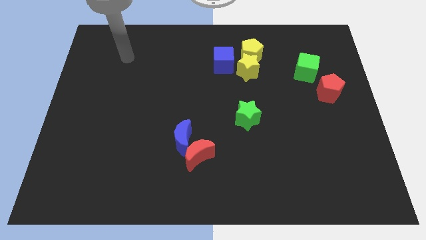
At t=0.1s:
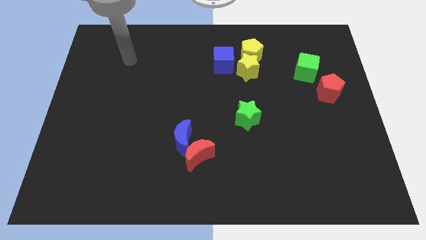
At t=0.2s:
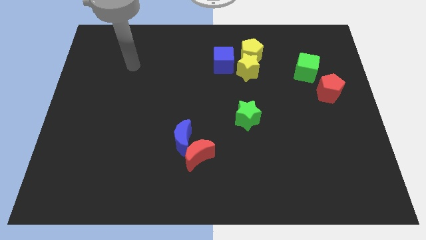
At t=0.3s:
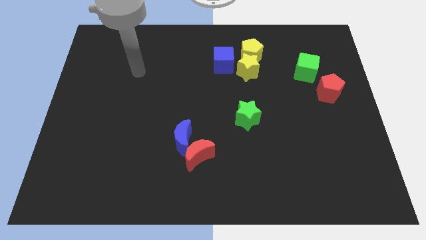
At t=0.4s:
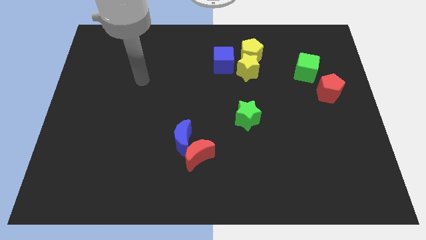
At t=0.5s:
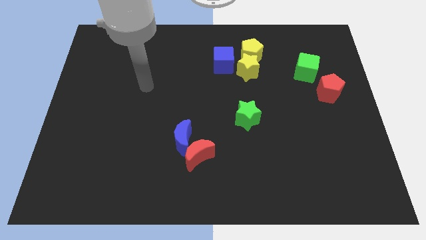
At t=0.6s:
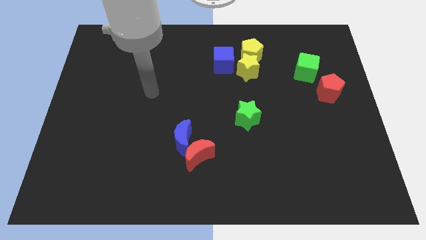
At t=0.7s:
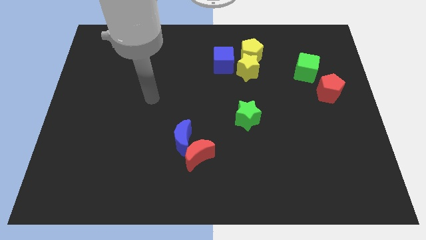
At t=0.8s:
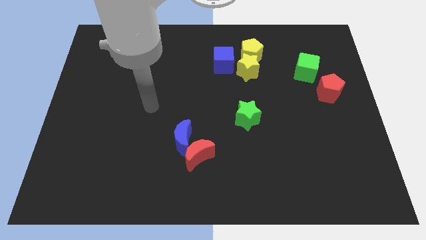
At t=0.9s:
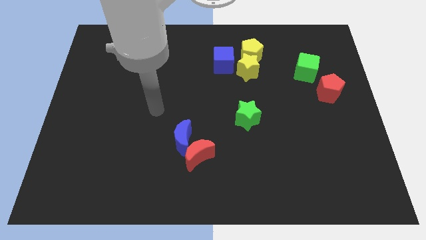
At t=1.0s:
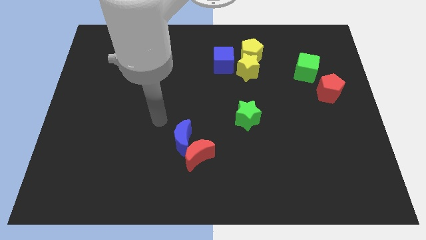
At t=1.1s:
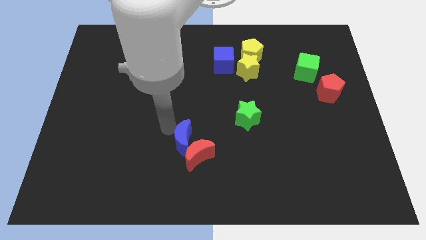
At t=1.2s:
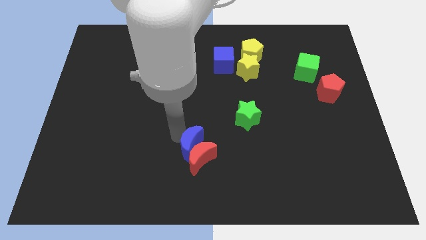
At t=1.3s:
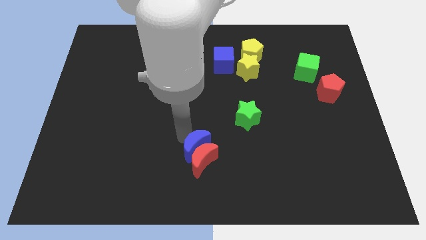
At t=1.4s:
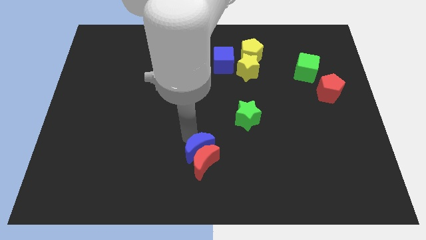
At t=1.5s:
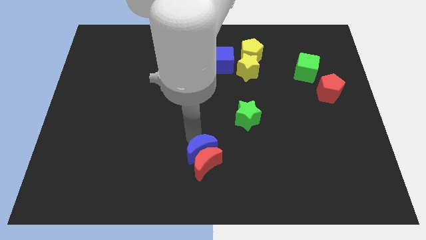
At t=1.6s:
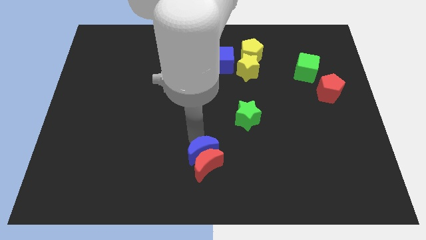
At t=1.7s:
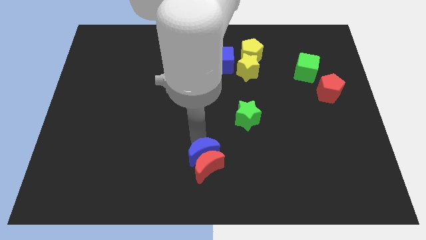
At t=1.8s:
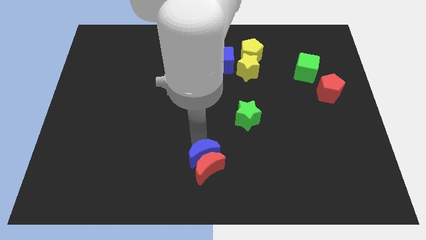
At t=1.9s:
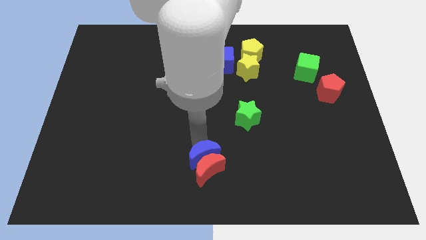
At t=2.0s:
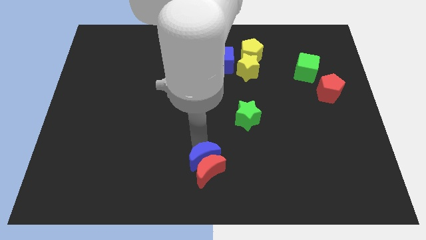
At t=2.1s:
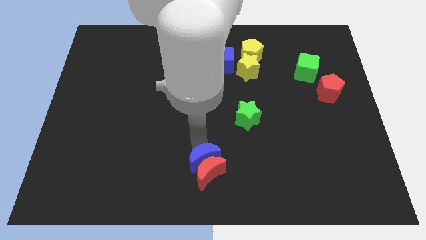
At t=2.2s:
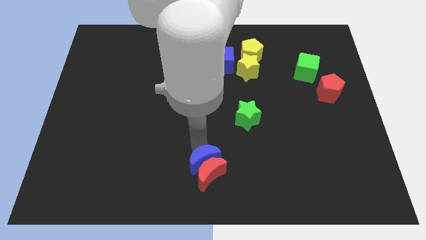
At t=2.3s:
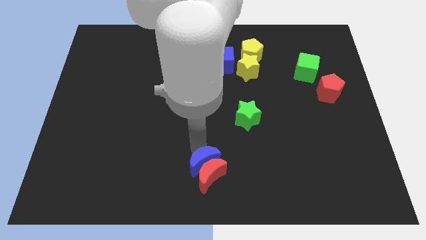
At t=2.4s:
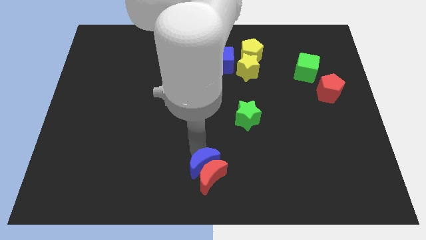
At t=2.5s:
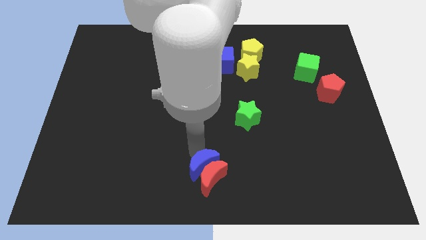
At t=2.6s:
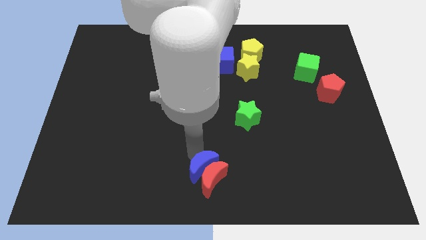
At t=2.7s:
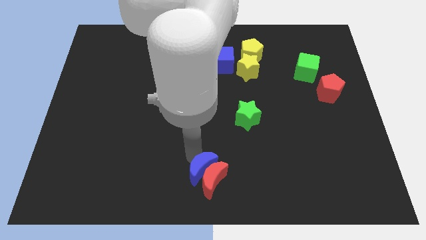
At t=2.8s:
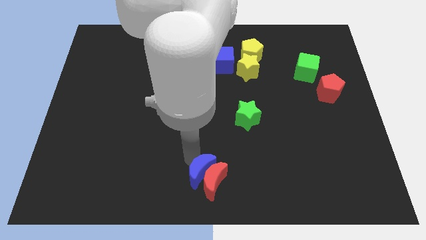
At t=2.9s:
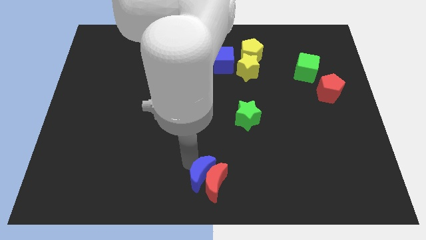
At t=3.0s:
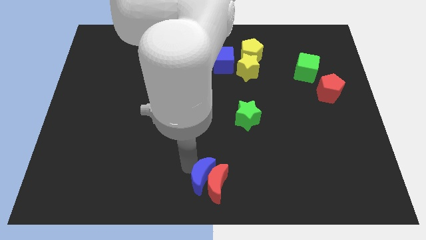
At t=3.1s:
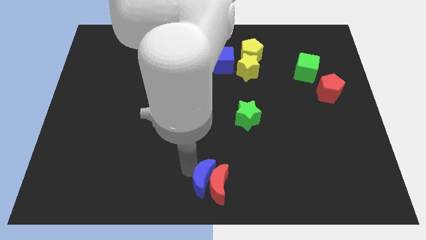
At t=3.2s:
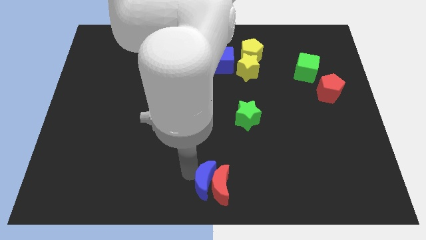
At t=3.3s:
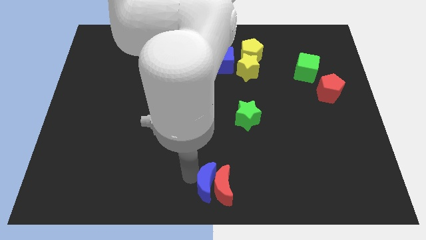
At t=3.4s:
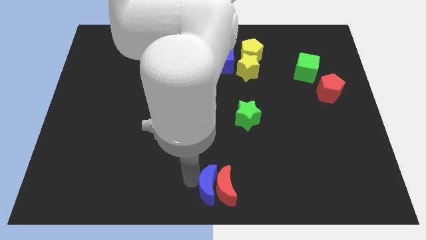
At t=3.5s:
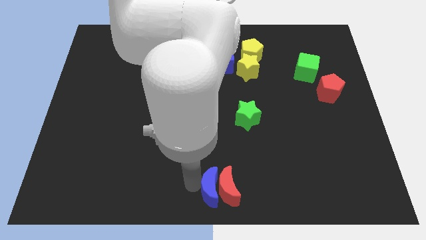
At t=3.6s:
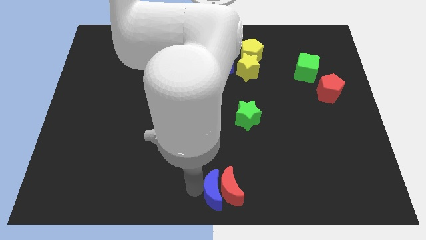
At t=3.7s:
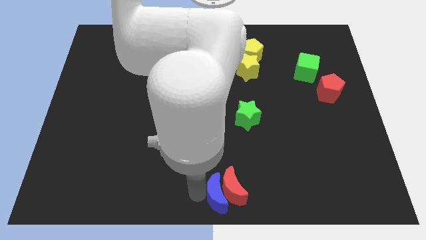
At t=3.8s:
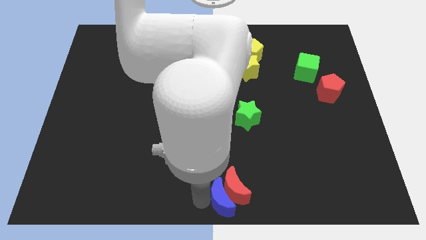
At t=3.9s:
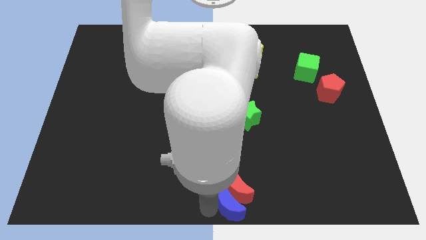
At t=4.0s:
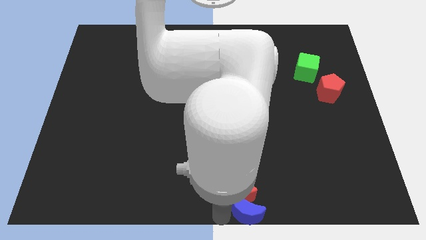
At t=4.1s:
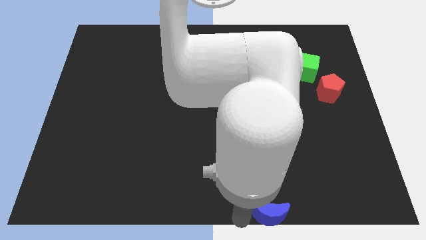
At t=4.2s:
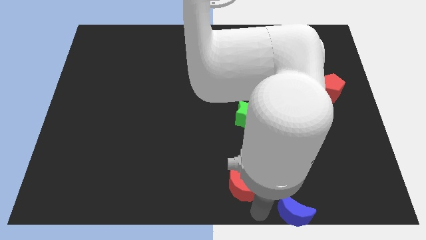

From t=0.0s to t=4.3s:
separate the red moon from the blue moon

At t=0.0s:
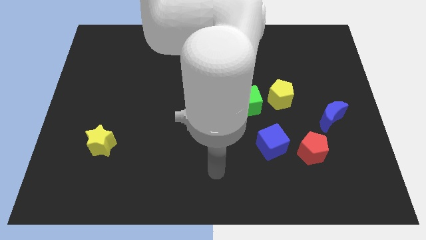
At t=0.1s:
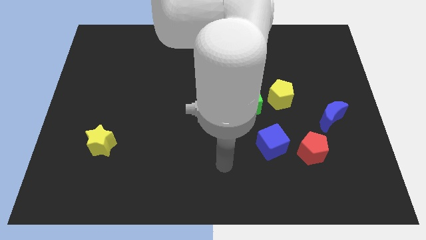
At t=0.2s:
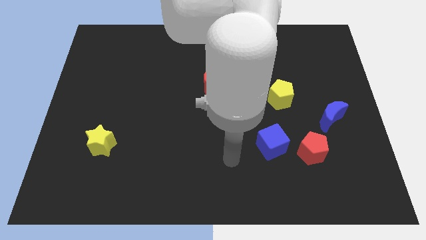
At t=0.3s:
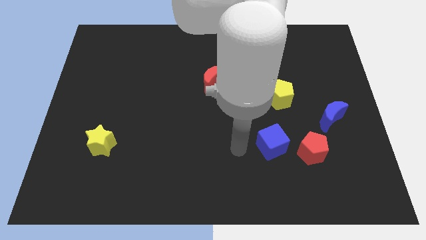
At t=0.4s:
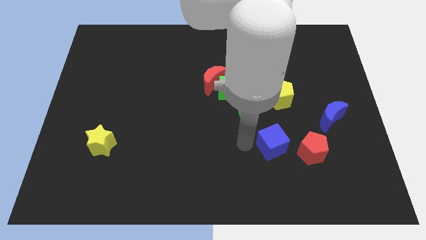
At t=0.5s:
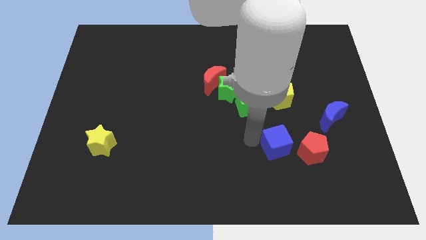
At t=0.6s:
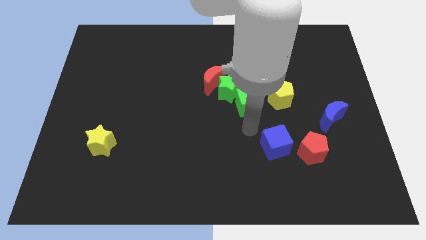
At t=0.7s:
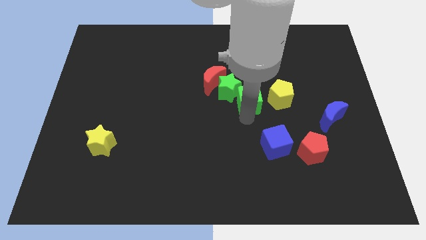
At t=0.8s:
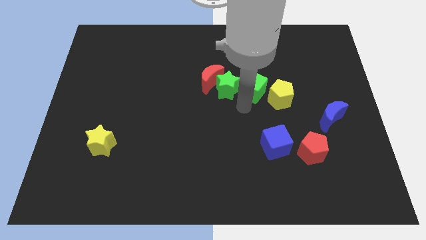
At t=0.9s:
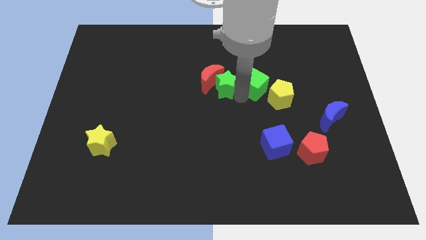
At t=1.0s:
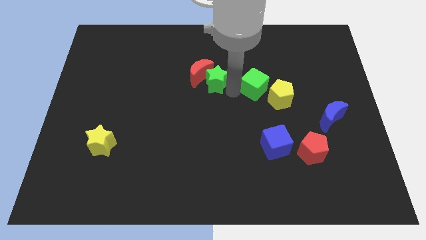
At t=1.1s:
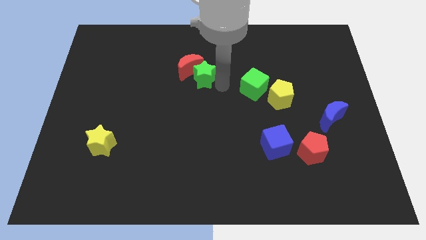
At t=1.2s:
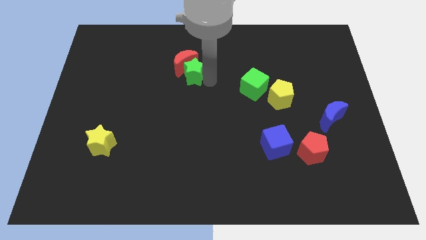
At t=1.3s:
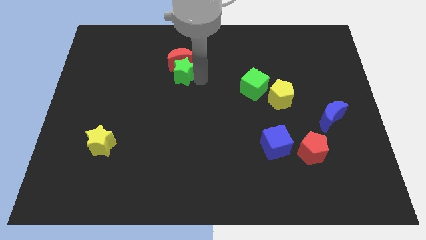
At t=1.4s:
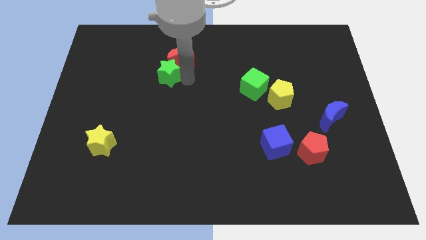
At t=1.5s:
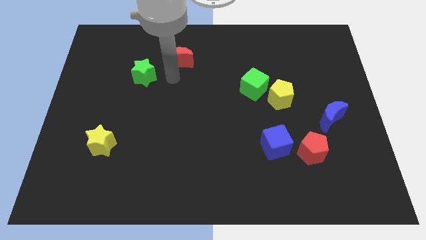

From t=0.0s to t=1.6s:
pull the red moon apart from the green star

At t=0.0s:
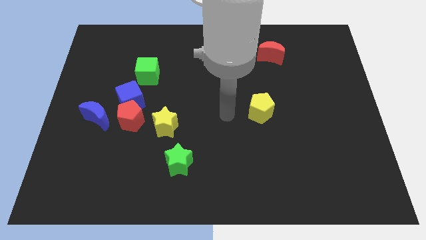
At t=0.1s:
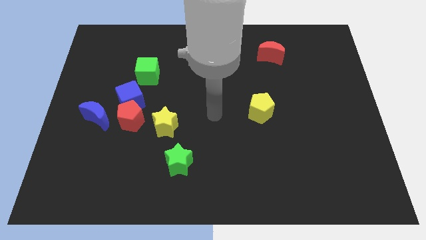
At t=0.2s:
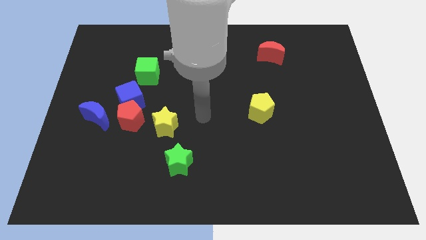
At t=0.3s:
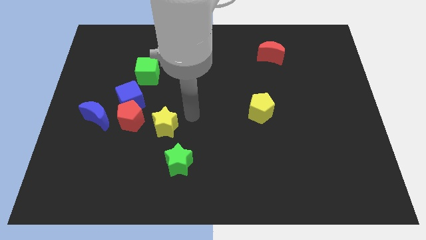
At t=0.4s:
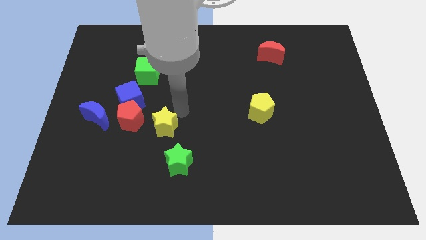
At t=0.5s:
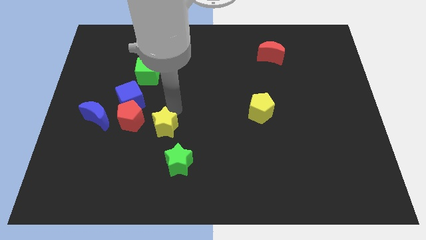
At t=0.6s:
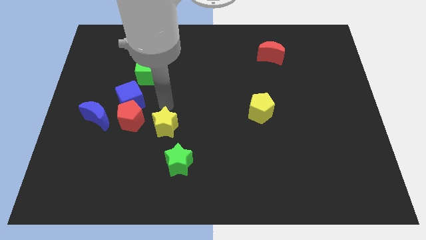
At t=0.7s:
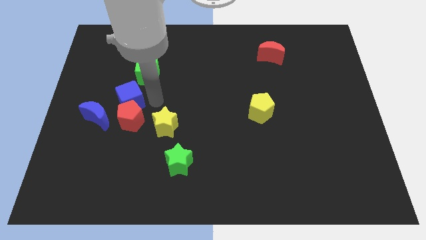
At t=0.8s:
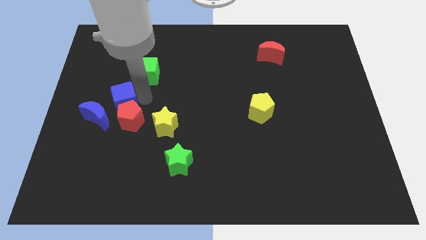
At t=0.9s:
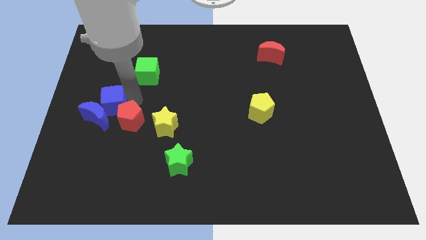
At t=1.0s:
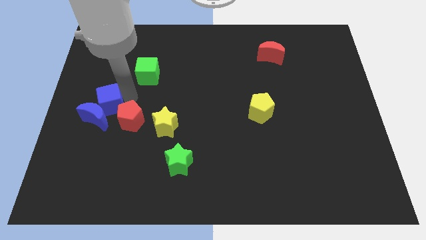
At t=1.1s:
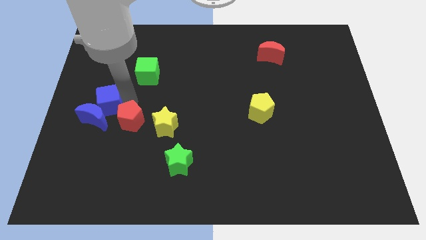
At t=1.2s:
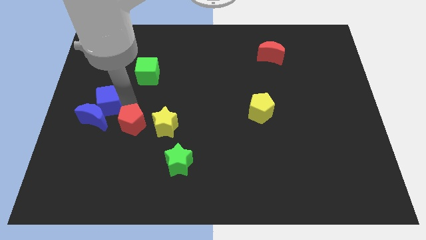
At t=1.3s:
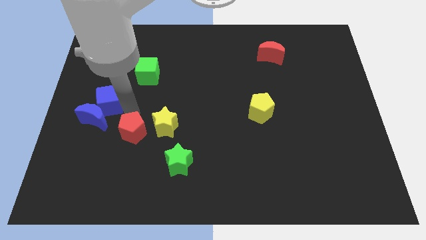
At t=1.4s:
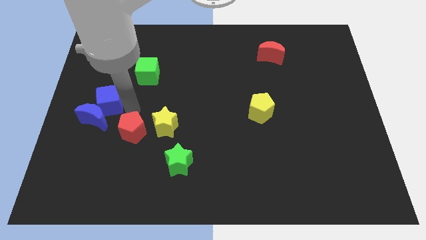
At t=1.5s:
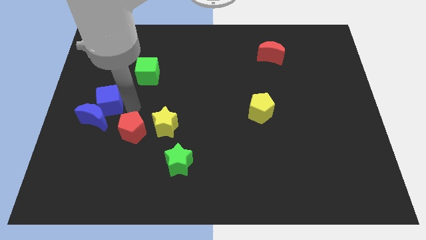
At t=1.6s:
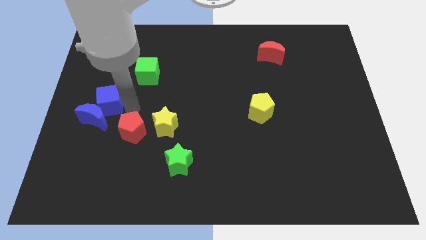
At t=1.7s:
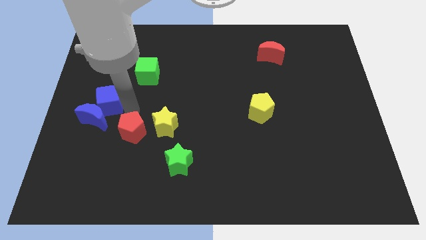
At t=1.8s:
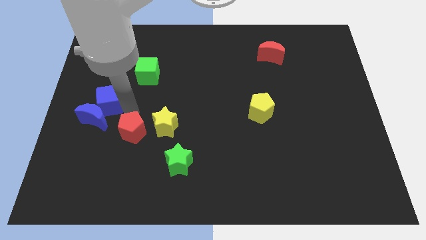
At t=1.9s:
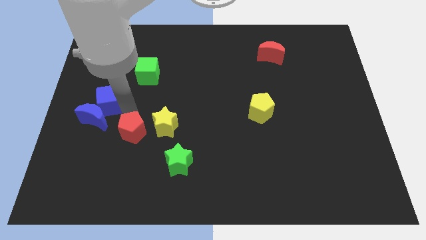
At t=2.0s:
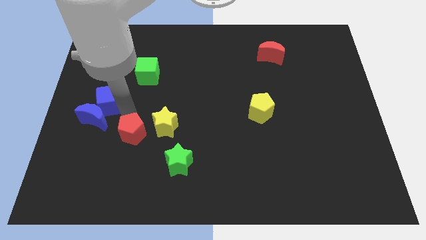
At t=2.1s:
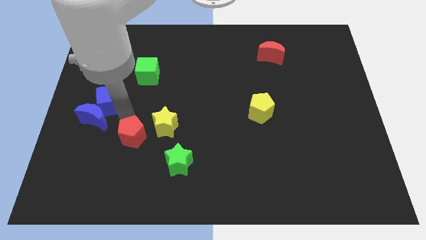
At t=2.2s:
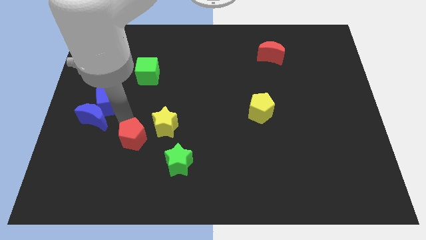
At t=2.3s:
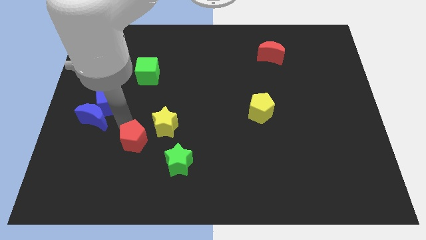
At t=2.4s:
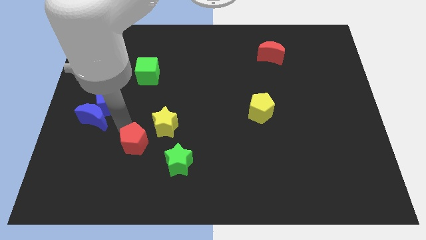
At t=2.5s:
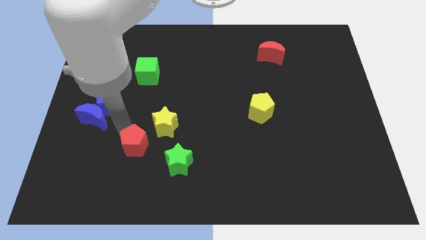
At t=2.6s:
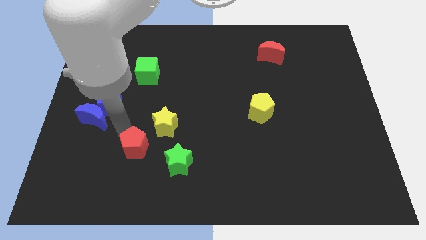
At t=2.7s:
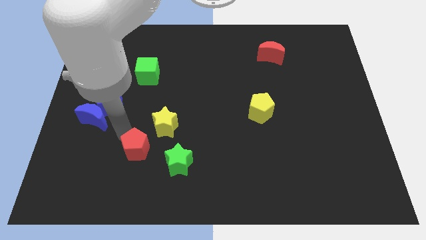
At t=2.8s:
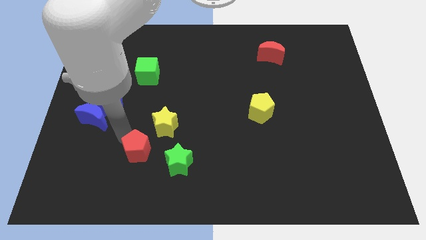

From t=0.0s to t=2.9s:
separate the red pentagon from the blue cube, blue moon, and yellow star

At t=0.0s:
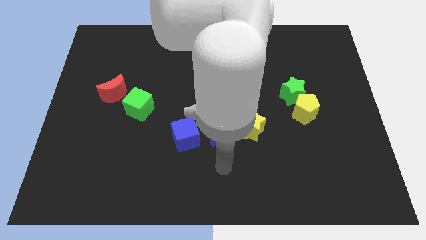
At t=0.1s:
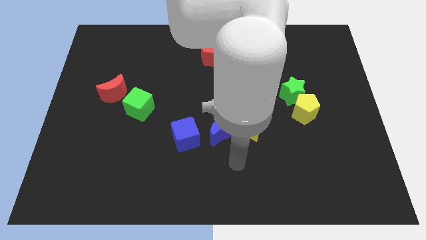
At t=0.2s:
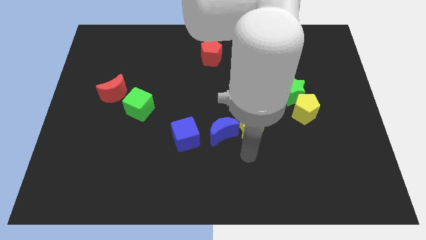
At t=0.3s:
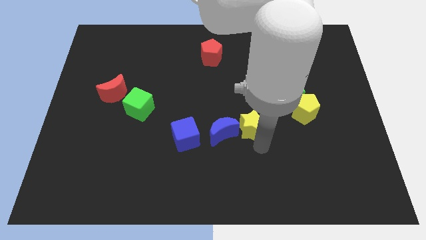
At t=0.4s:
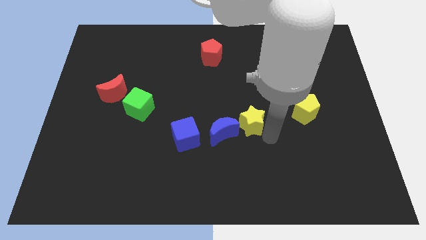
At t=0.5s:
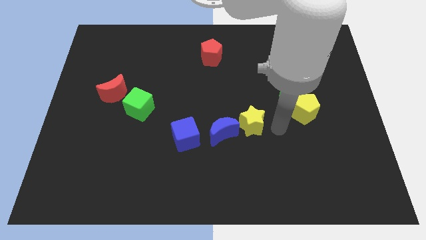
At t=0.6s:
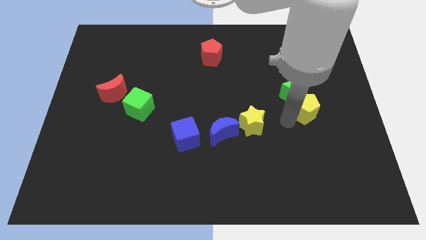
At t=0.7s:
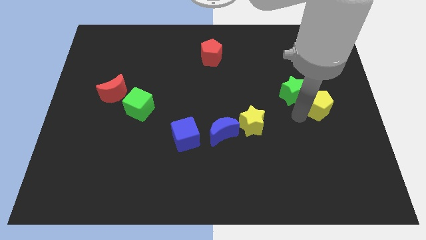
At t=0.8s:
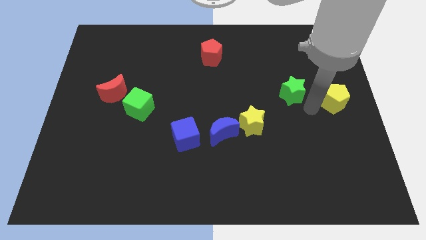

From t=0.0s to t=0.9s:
move the green star away from the yellow pentagon
